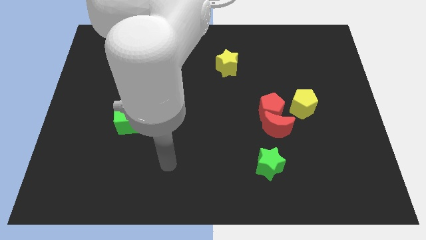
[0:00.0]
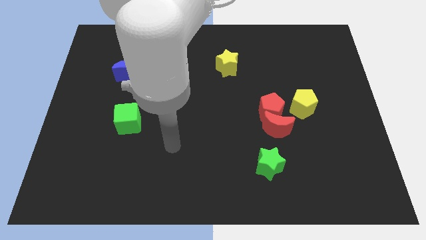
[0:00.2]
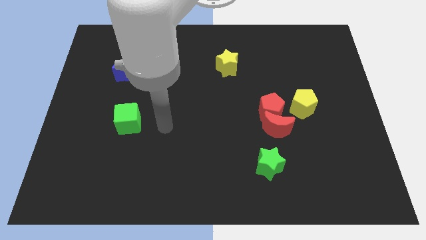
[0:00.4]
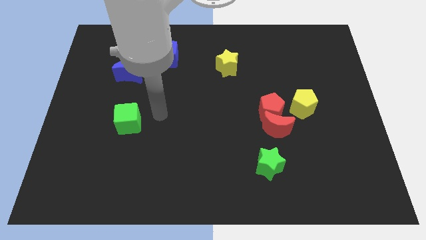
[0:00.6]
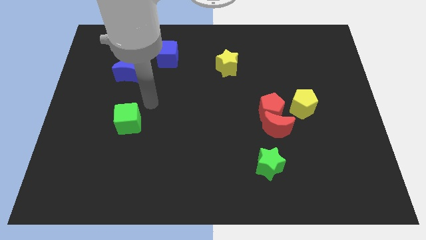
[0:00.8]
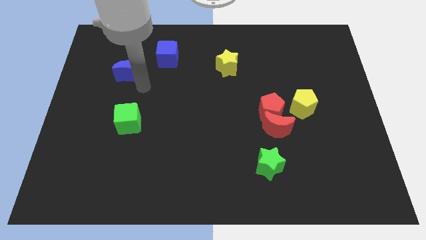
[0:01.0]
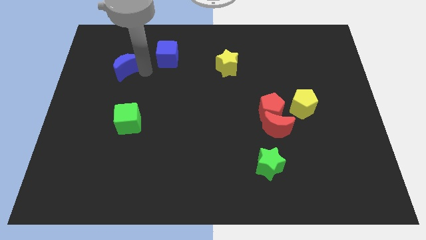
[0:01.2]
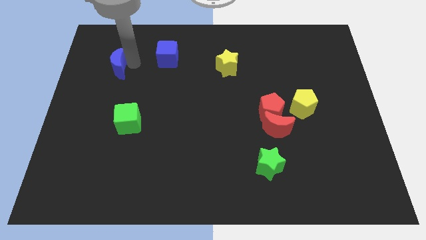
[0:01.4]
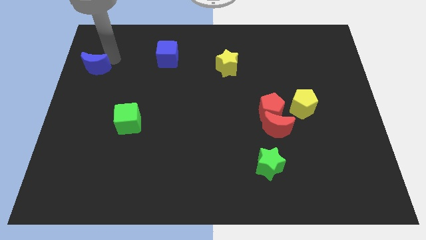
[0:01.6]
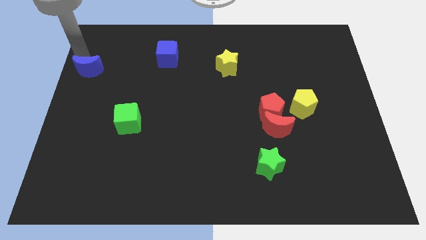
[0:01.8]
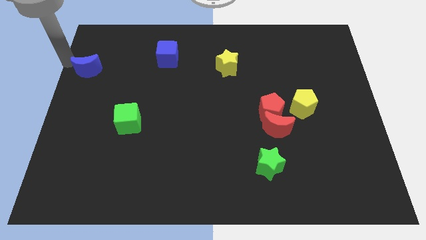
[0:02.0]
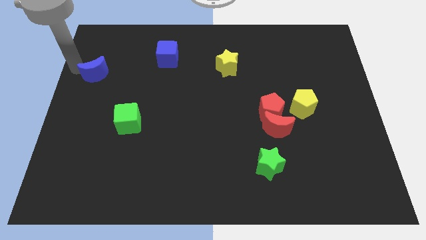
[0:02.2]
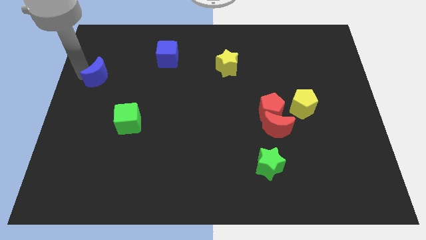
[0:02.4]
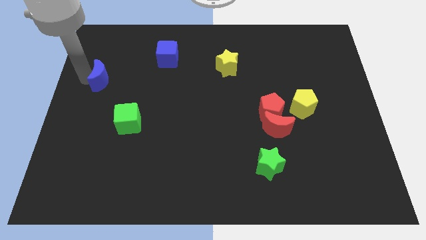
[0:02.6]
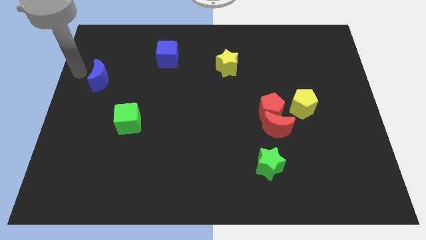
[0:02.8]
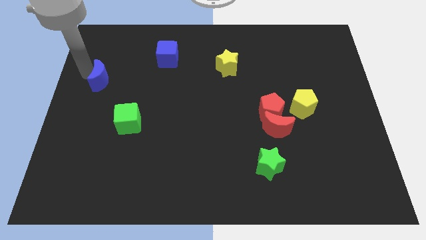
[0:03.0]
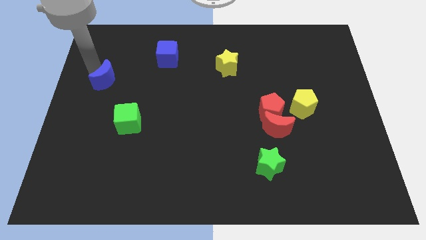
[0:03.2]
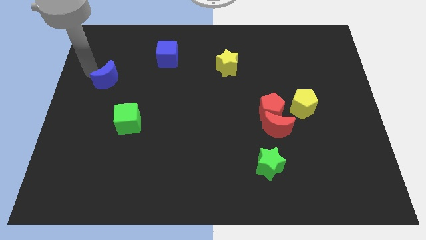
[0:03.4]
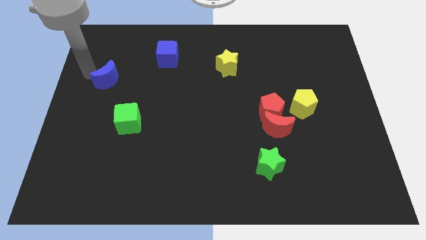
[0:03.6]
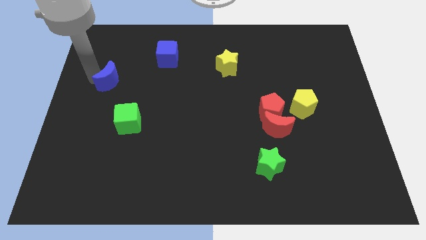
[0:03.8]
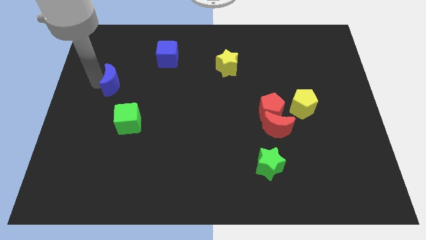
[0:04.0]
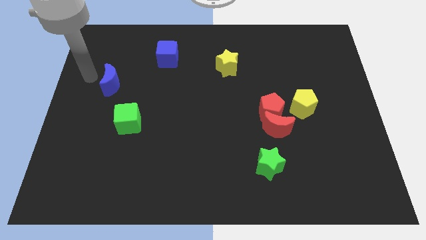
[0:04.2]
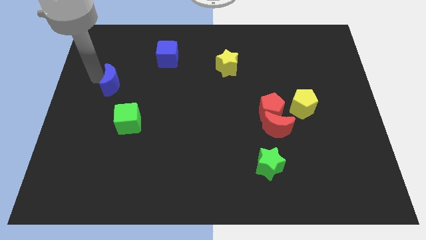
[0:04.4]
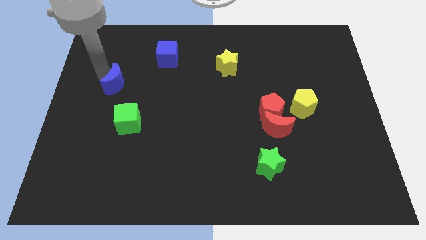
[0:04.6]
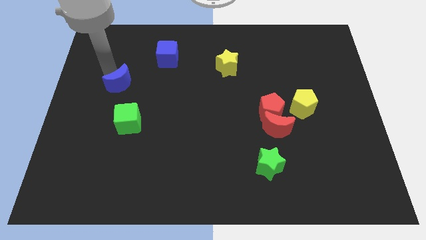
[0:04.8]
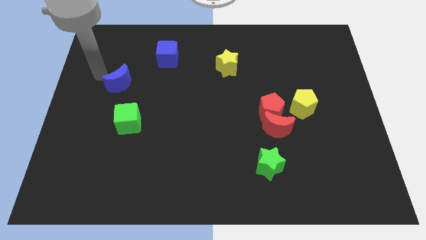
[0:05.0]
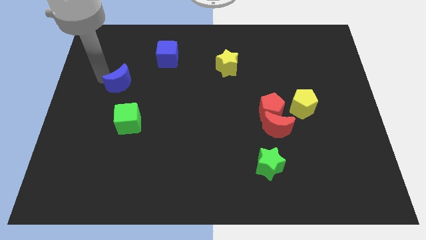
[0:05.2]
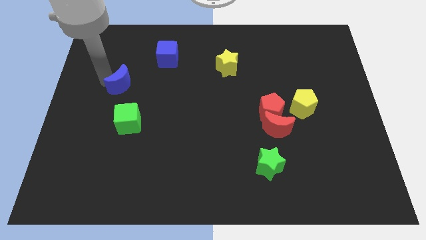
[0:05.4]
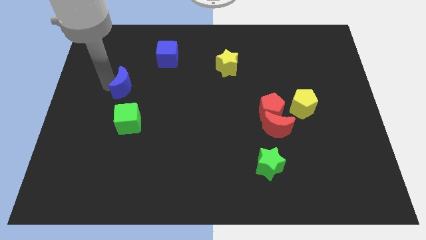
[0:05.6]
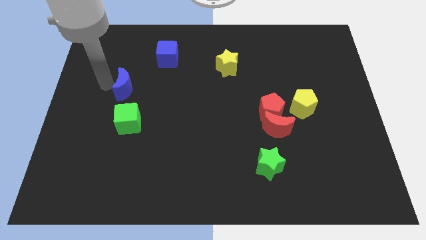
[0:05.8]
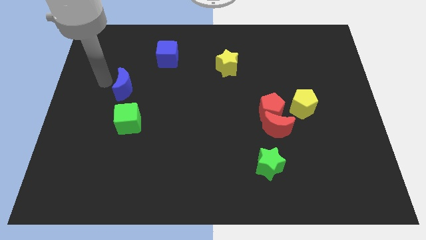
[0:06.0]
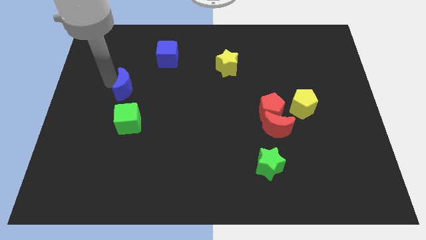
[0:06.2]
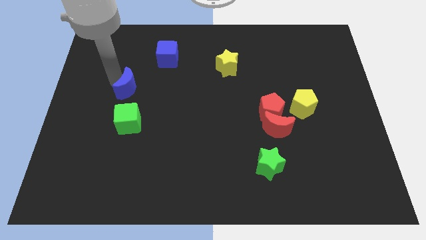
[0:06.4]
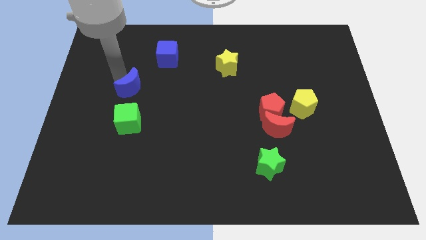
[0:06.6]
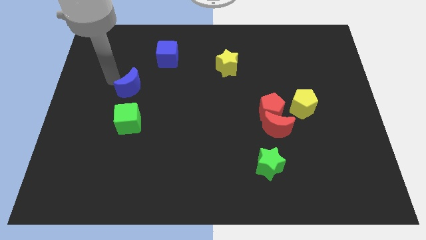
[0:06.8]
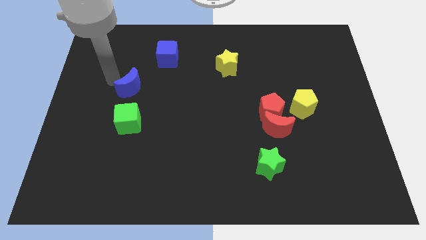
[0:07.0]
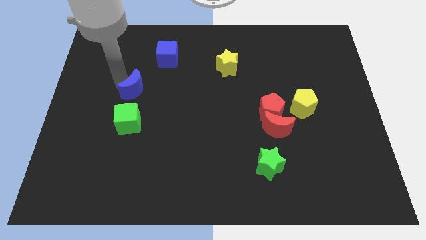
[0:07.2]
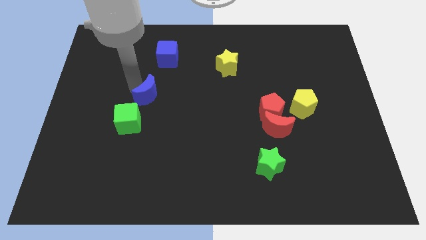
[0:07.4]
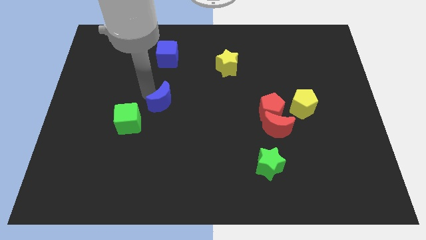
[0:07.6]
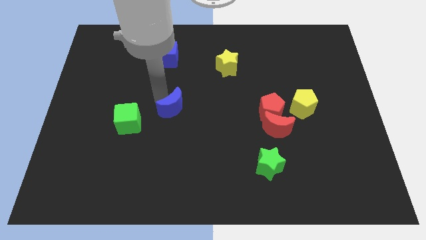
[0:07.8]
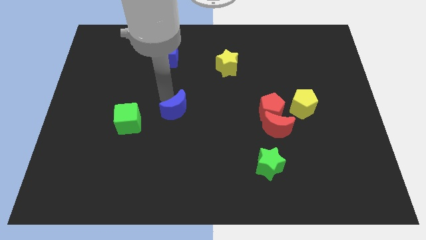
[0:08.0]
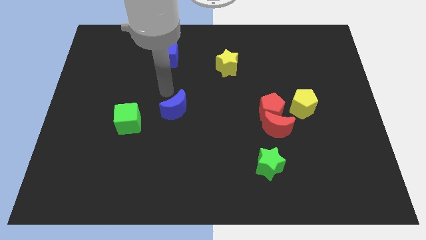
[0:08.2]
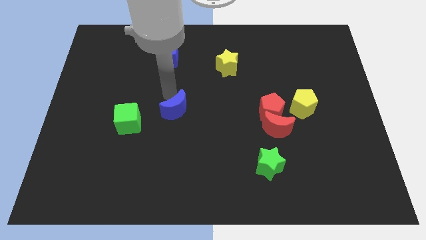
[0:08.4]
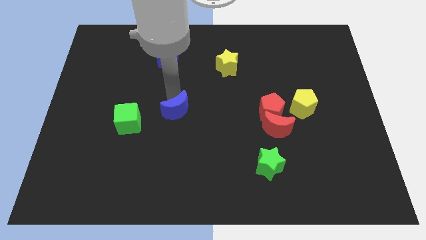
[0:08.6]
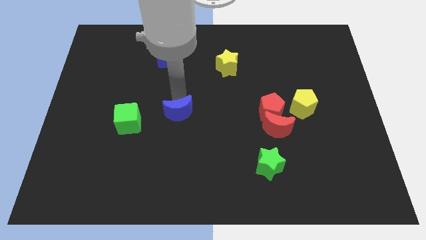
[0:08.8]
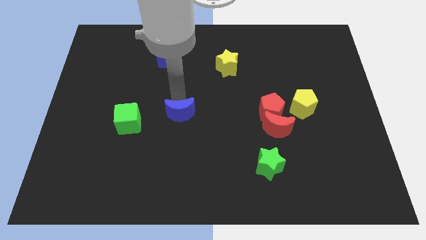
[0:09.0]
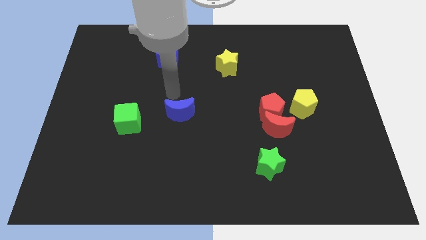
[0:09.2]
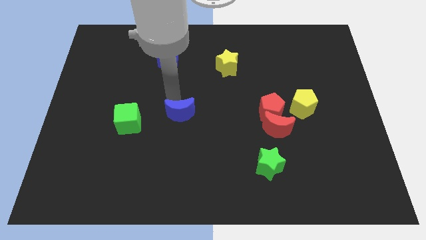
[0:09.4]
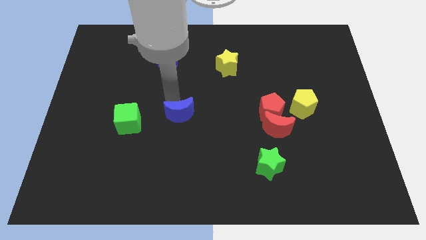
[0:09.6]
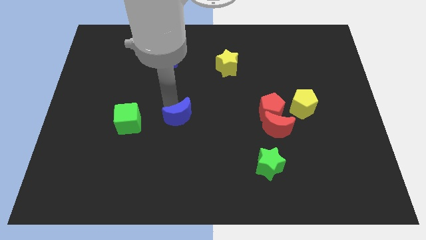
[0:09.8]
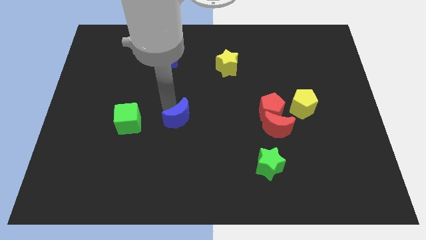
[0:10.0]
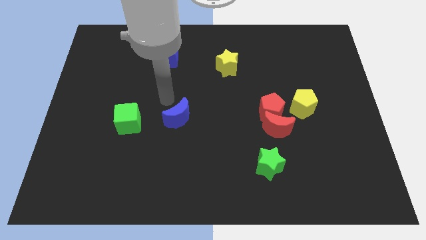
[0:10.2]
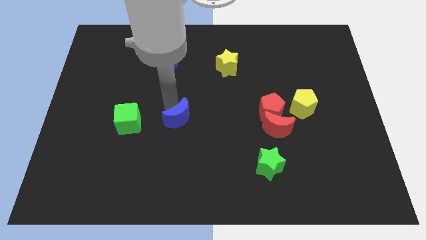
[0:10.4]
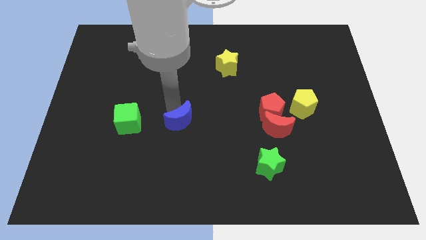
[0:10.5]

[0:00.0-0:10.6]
slide the blue moon downwards and then to the right

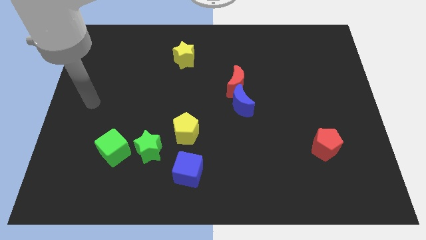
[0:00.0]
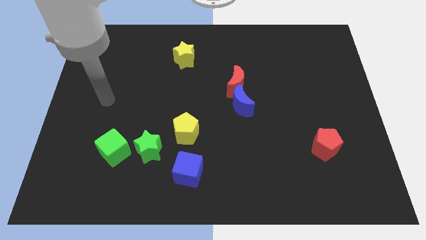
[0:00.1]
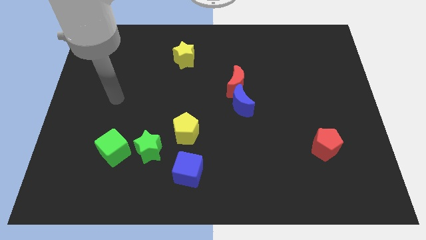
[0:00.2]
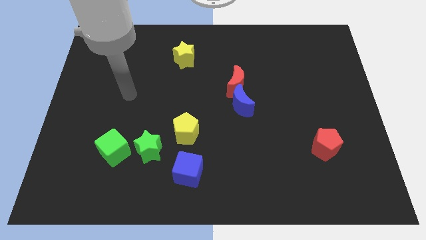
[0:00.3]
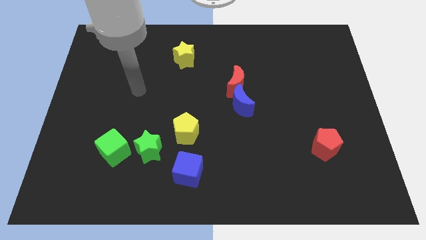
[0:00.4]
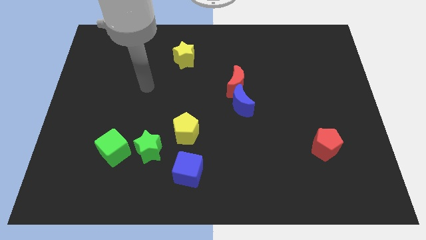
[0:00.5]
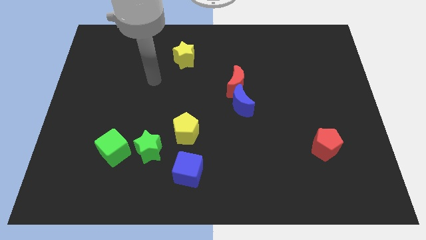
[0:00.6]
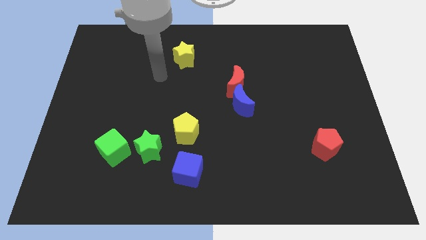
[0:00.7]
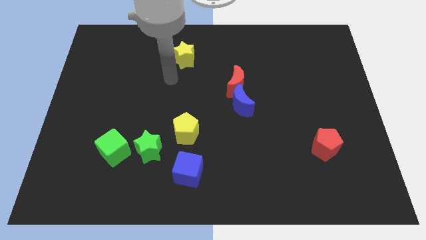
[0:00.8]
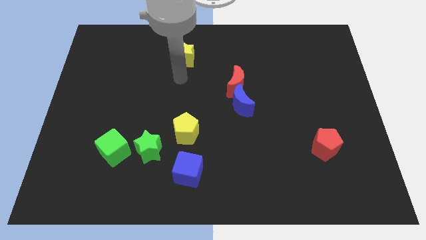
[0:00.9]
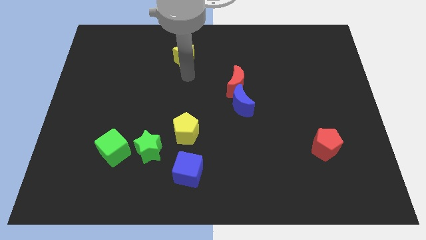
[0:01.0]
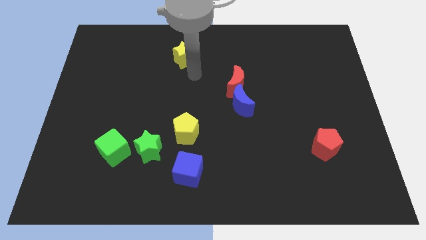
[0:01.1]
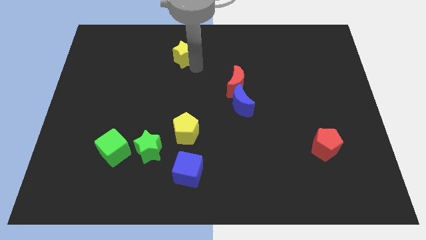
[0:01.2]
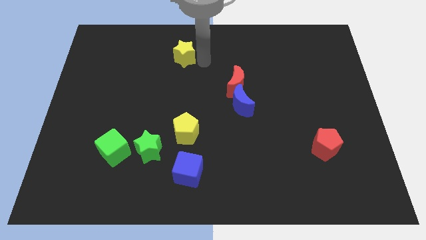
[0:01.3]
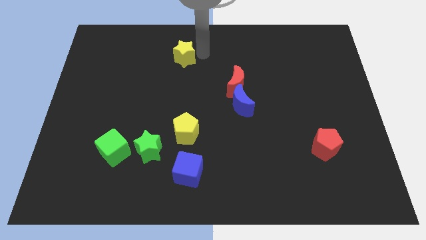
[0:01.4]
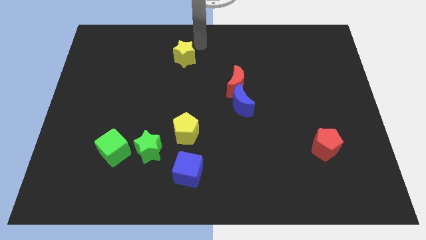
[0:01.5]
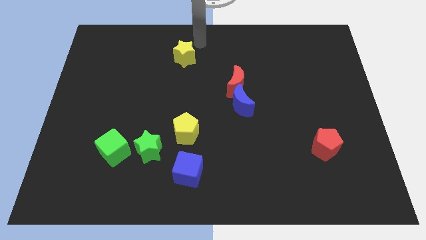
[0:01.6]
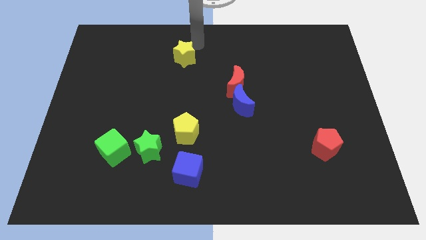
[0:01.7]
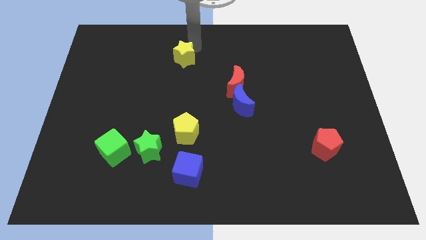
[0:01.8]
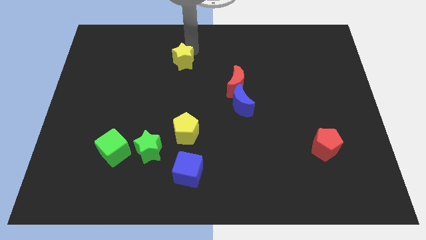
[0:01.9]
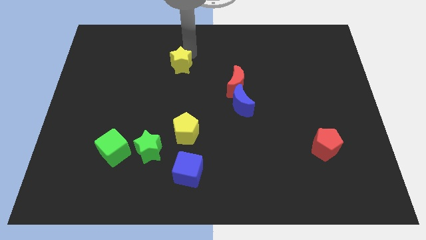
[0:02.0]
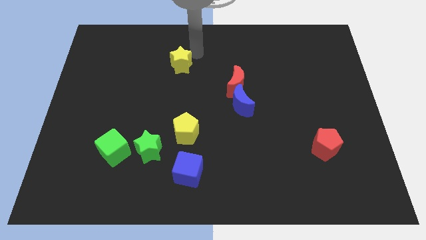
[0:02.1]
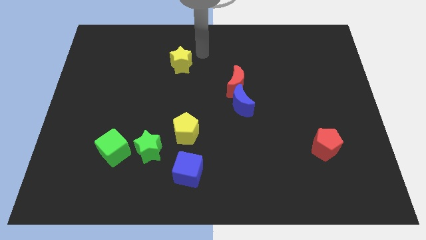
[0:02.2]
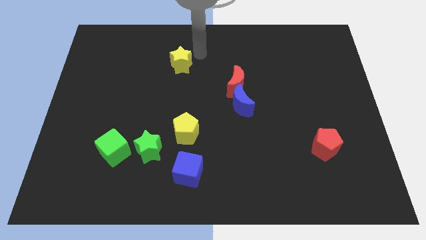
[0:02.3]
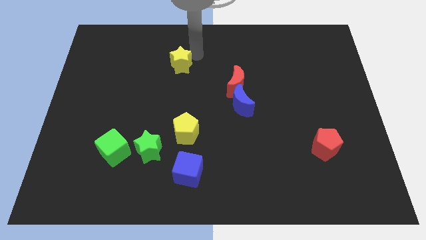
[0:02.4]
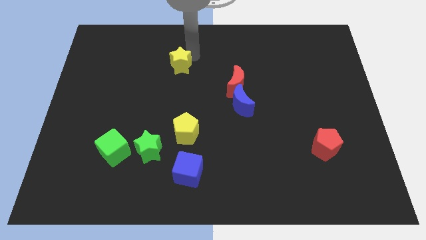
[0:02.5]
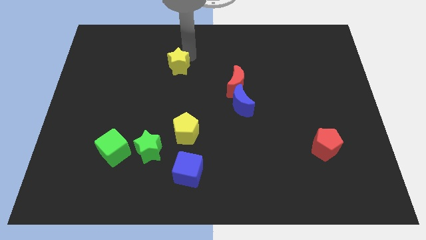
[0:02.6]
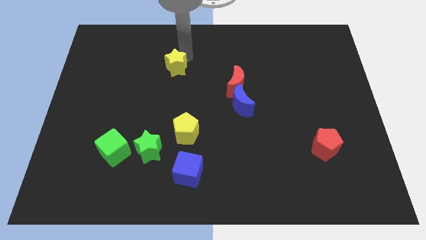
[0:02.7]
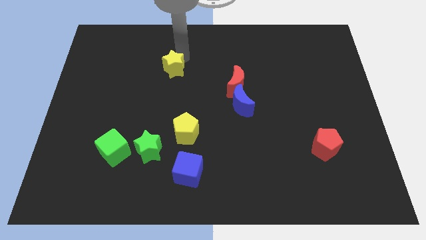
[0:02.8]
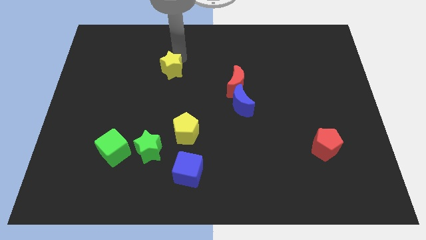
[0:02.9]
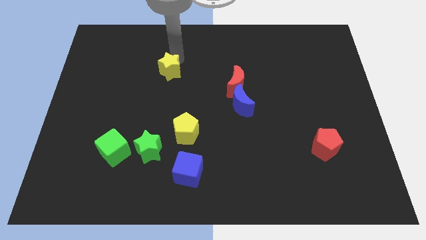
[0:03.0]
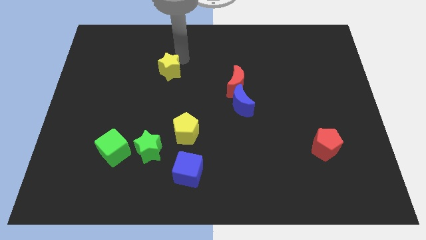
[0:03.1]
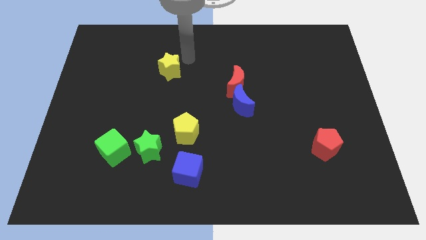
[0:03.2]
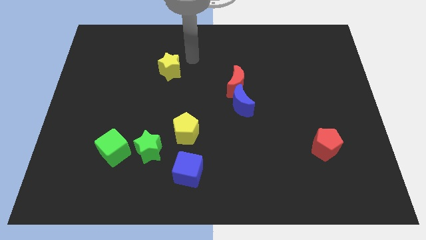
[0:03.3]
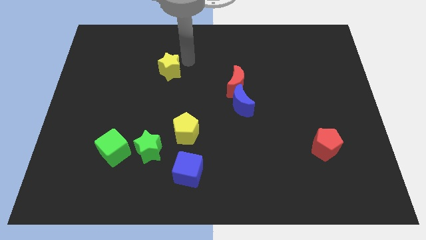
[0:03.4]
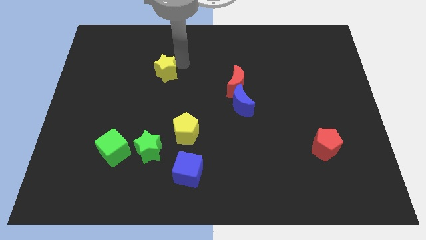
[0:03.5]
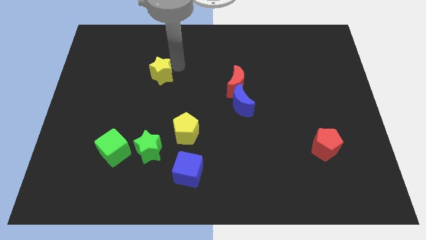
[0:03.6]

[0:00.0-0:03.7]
move the yellow star a bit downwards and then to the left
